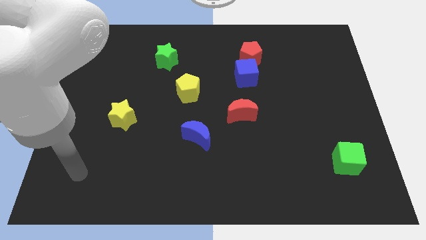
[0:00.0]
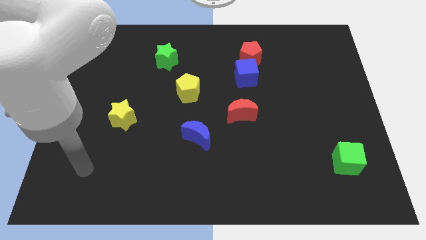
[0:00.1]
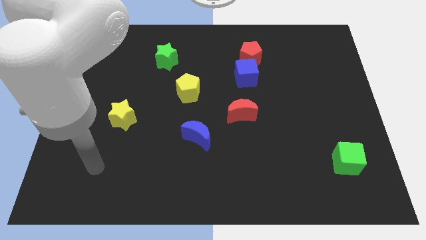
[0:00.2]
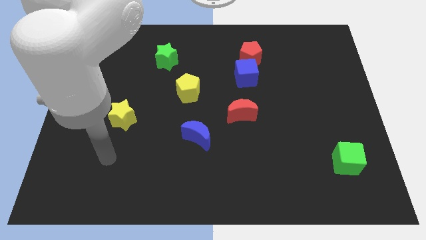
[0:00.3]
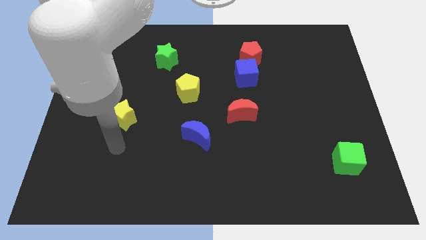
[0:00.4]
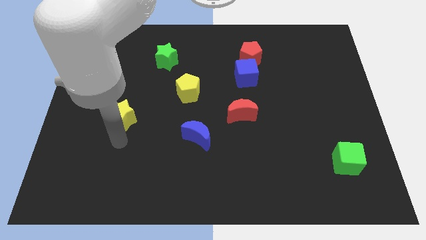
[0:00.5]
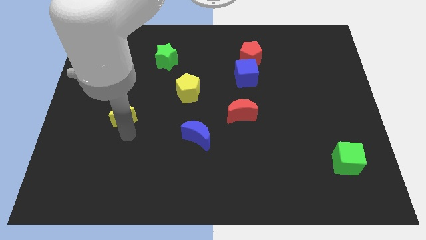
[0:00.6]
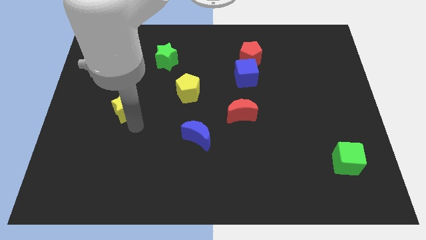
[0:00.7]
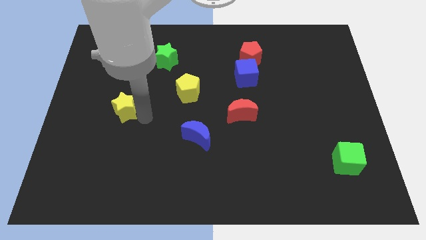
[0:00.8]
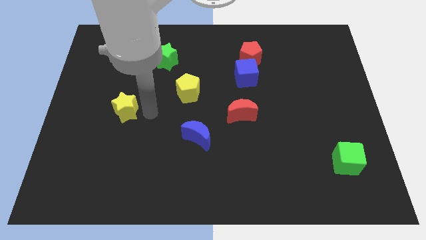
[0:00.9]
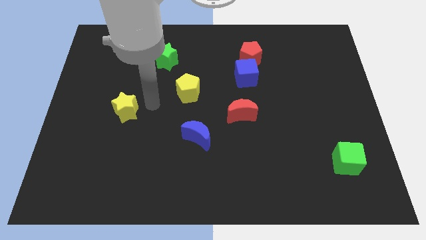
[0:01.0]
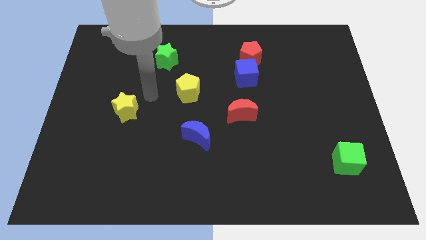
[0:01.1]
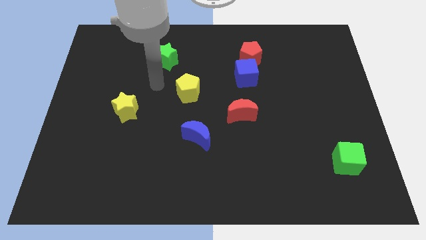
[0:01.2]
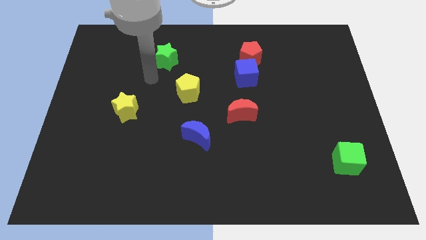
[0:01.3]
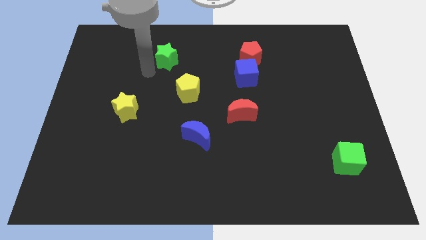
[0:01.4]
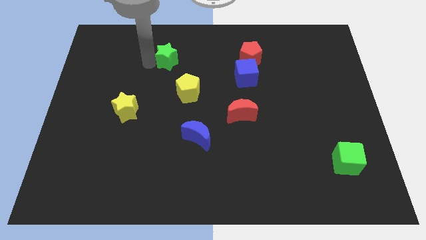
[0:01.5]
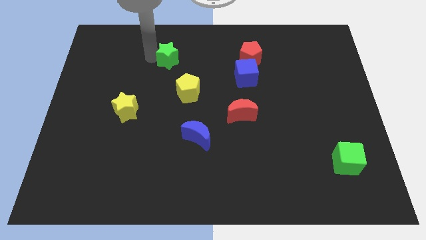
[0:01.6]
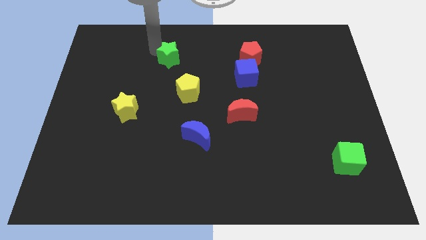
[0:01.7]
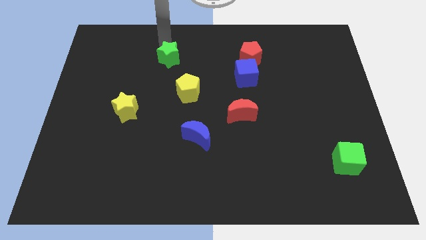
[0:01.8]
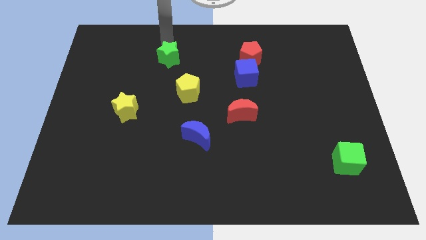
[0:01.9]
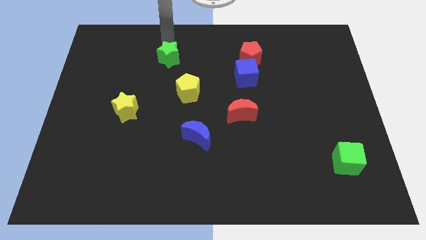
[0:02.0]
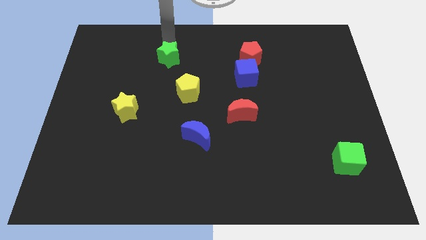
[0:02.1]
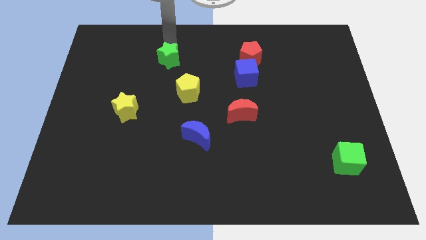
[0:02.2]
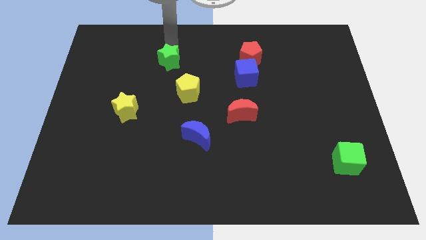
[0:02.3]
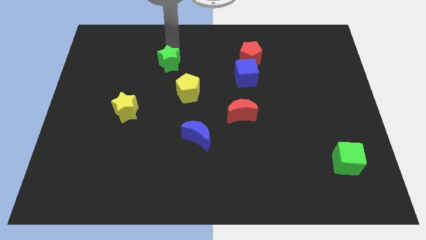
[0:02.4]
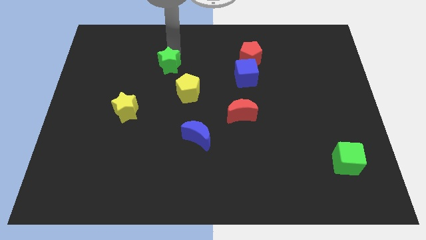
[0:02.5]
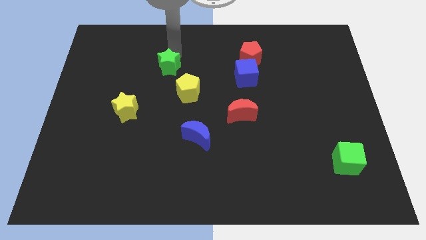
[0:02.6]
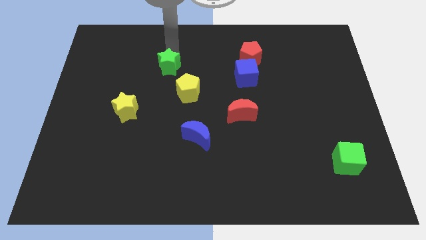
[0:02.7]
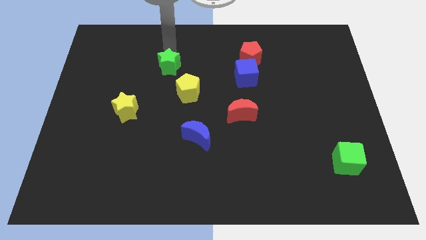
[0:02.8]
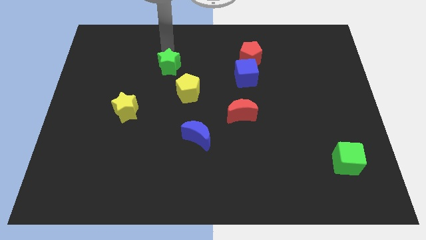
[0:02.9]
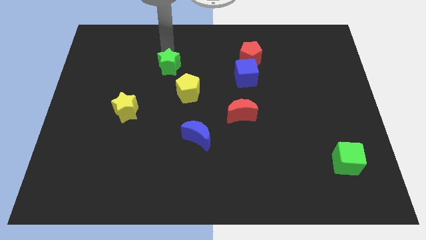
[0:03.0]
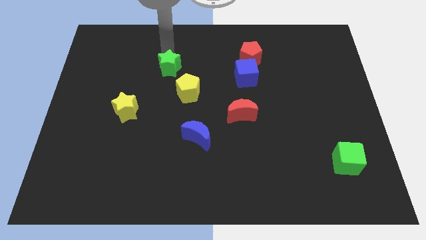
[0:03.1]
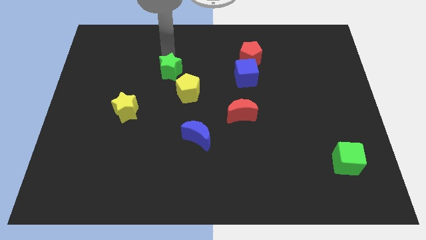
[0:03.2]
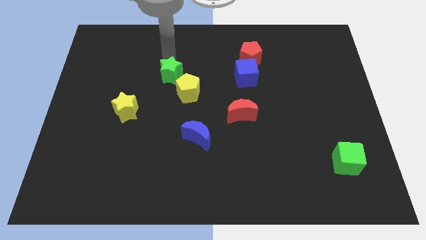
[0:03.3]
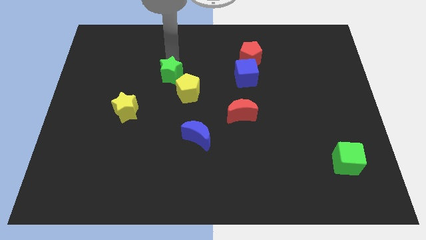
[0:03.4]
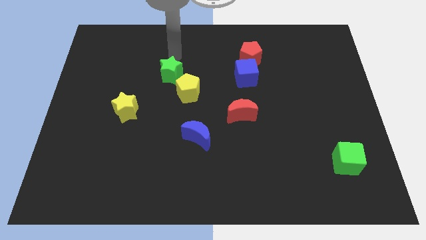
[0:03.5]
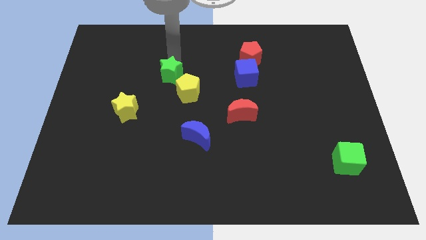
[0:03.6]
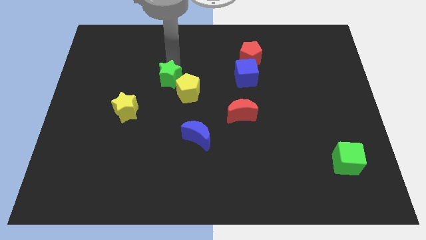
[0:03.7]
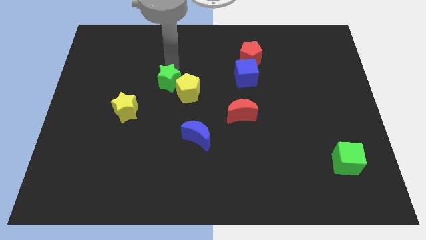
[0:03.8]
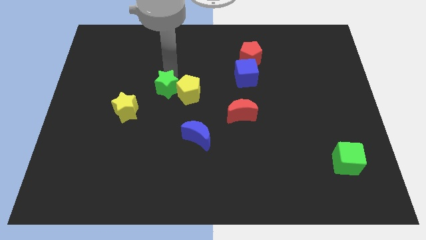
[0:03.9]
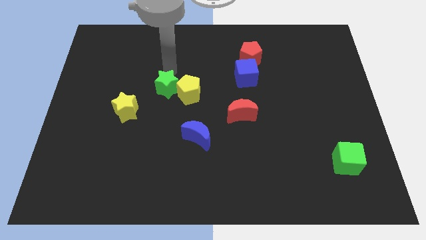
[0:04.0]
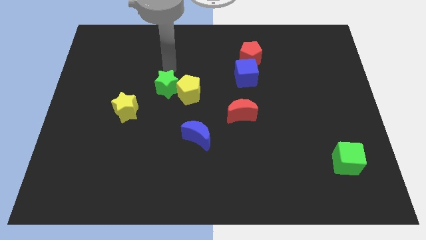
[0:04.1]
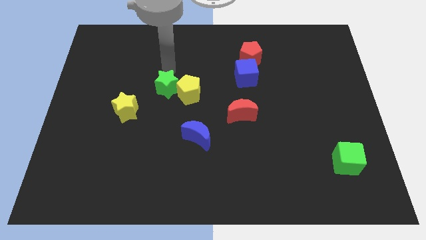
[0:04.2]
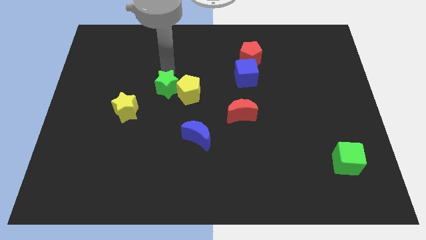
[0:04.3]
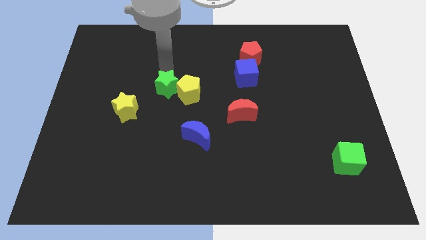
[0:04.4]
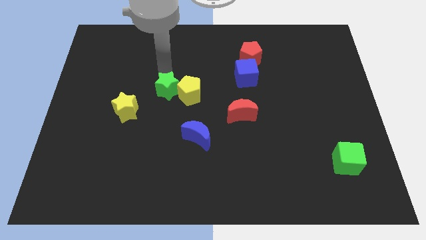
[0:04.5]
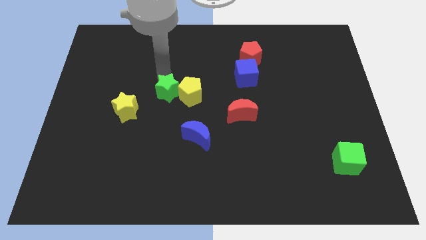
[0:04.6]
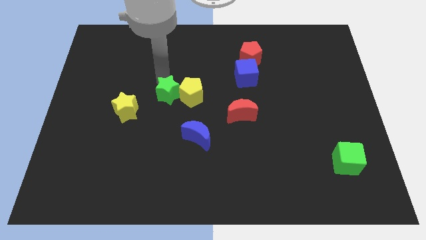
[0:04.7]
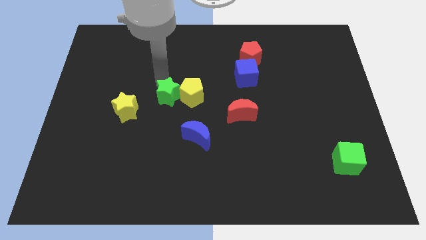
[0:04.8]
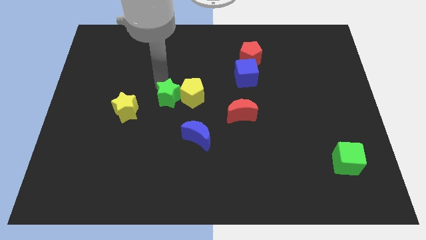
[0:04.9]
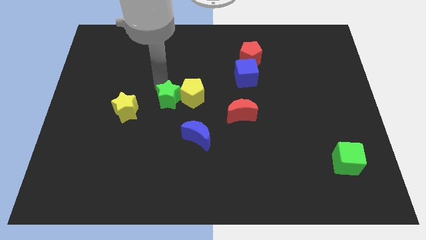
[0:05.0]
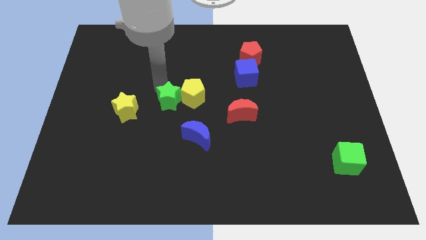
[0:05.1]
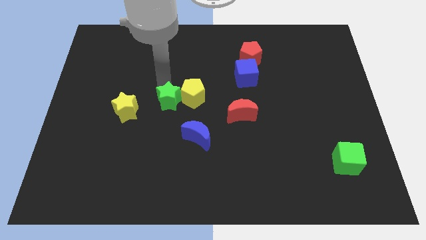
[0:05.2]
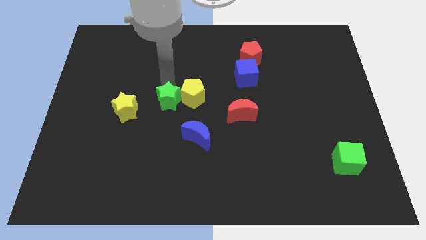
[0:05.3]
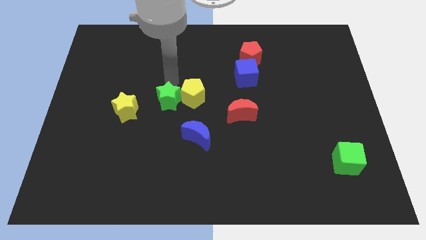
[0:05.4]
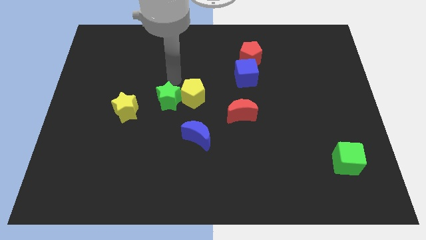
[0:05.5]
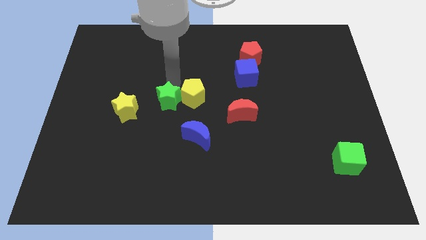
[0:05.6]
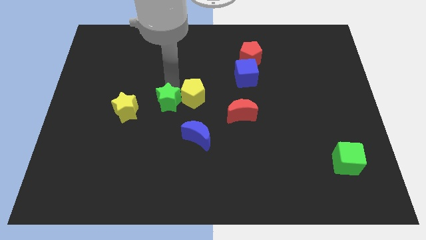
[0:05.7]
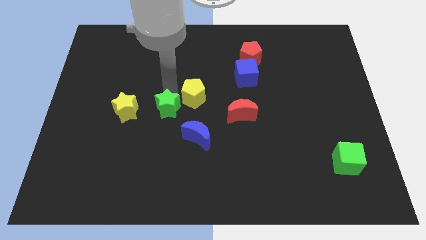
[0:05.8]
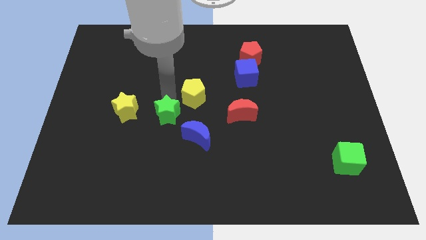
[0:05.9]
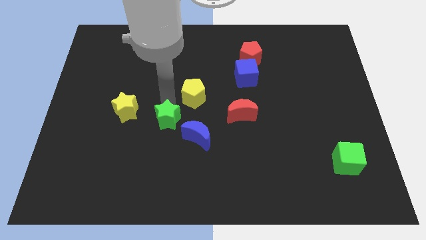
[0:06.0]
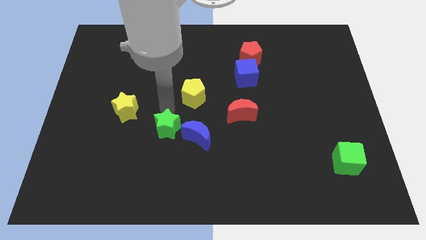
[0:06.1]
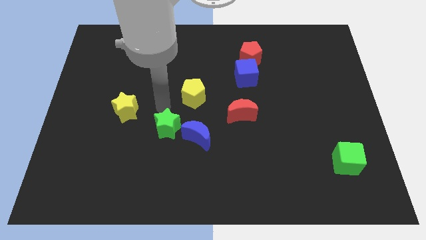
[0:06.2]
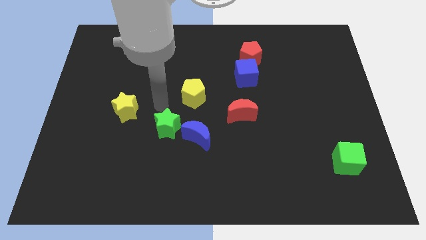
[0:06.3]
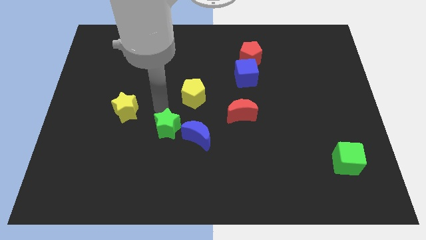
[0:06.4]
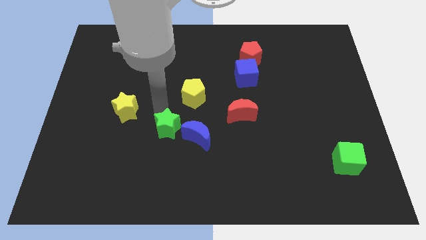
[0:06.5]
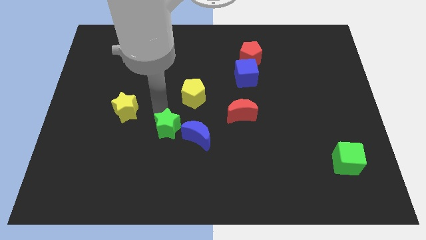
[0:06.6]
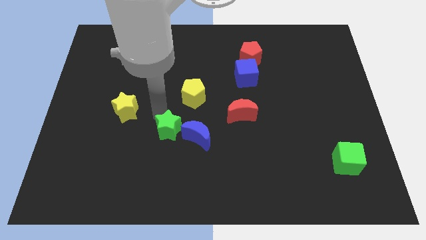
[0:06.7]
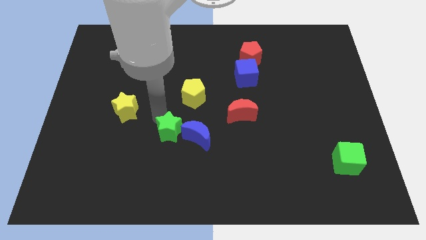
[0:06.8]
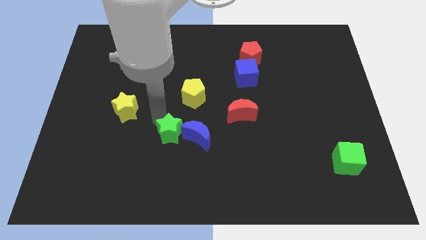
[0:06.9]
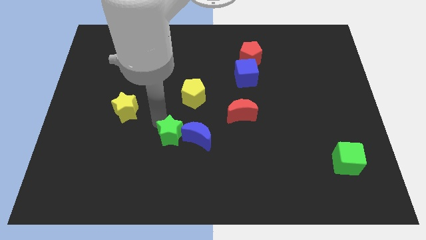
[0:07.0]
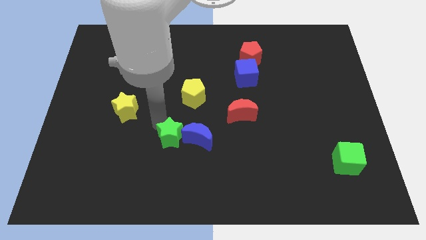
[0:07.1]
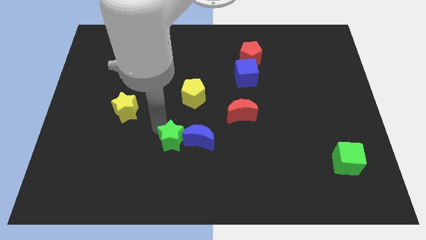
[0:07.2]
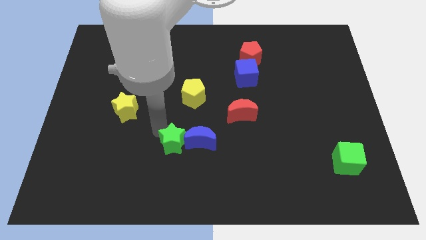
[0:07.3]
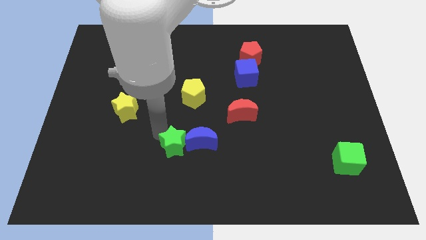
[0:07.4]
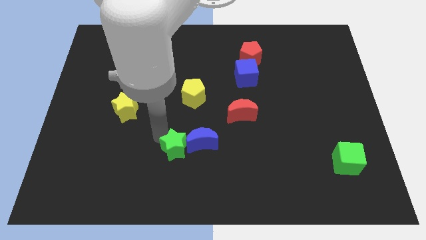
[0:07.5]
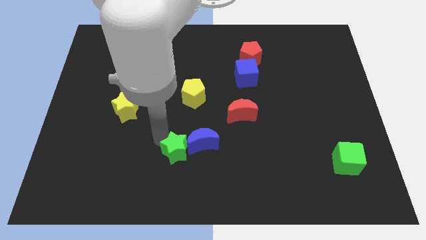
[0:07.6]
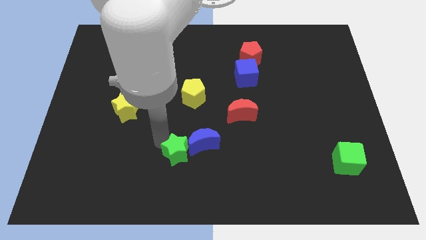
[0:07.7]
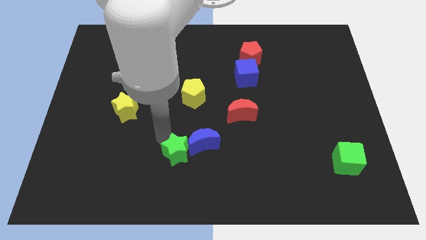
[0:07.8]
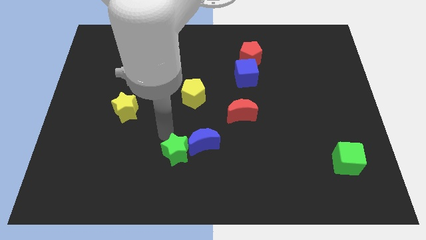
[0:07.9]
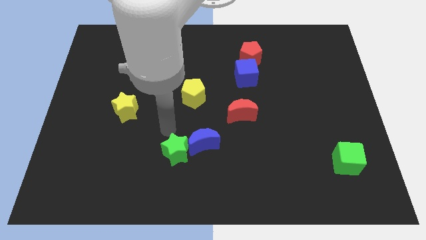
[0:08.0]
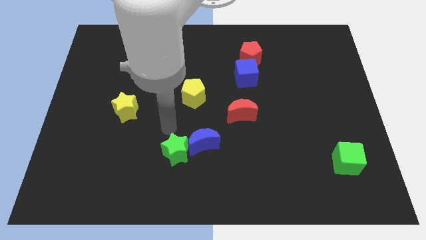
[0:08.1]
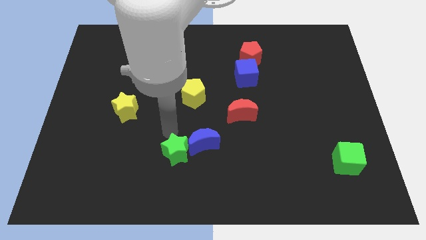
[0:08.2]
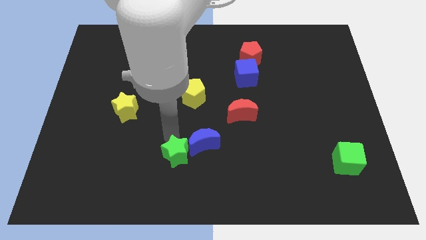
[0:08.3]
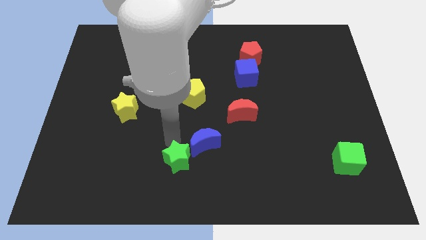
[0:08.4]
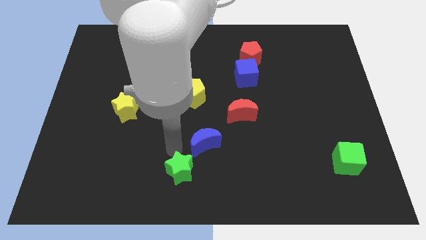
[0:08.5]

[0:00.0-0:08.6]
put the green star to the bottom
